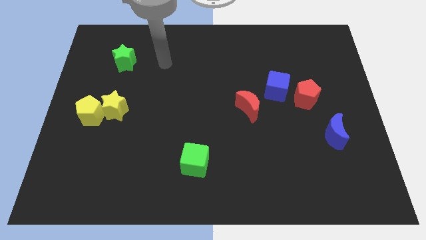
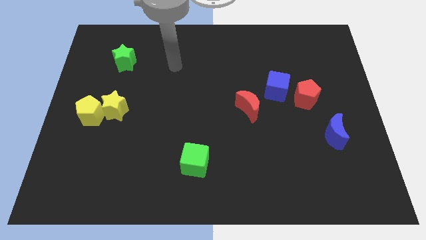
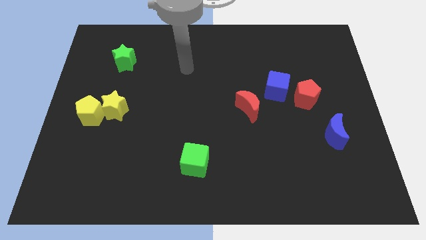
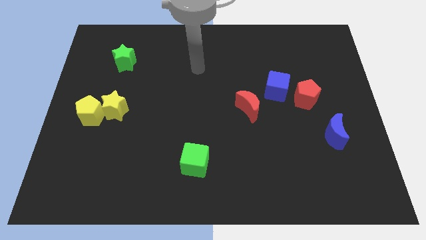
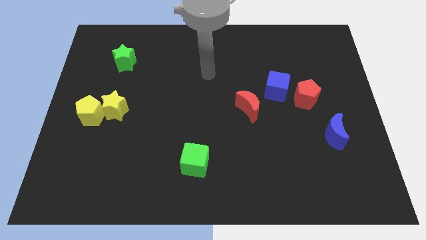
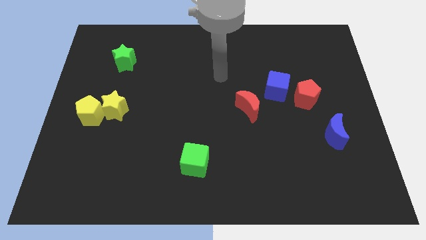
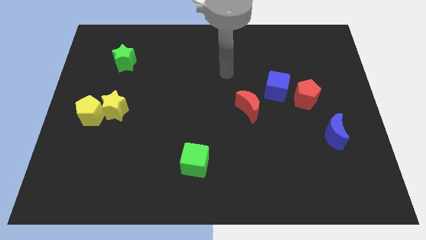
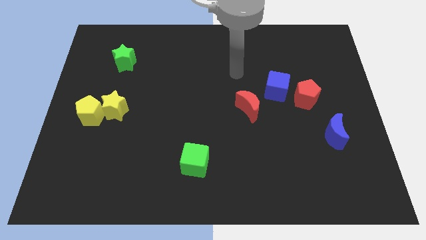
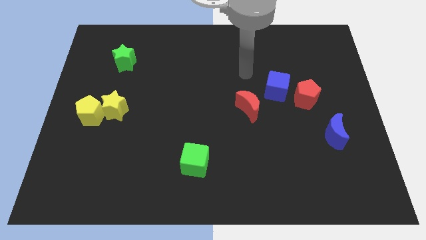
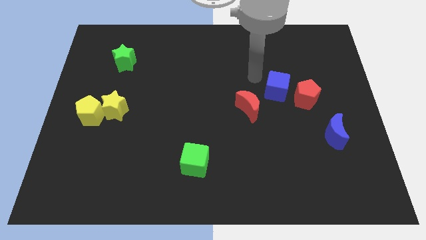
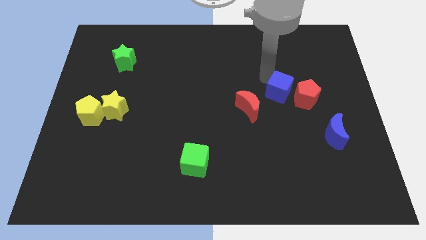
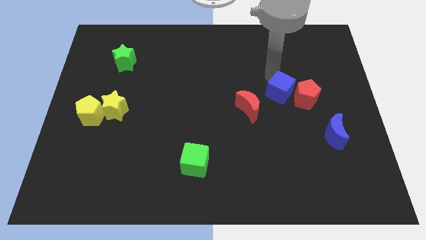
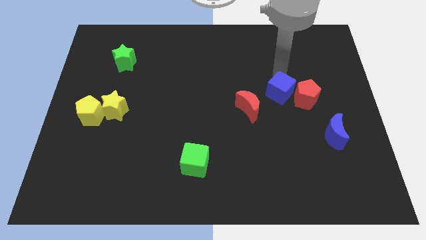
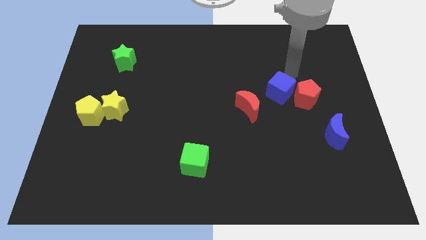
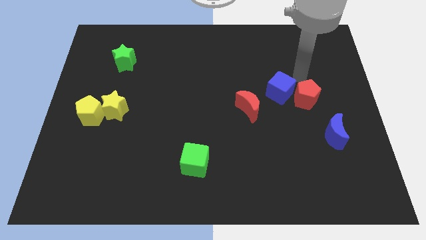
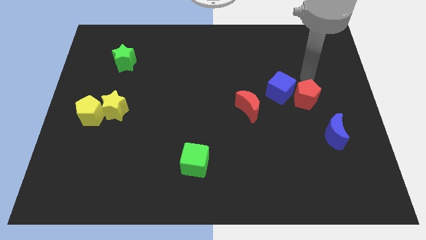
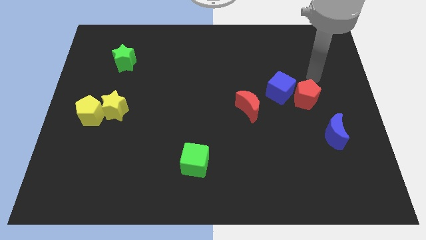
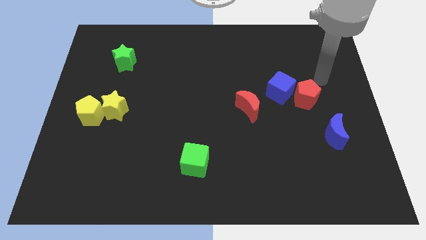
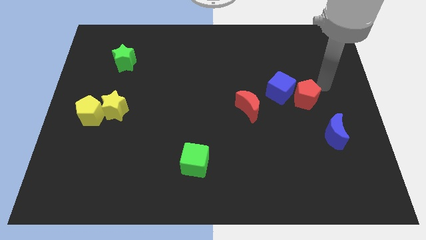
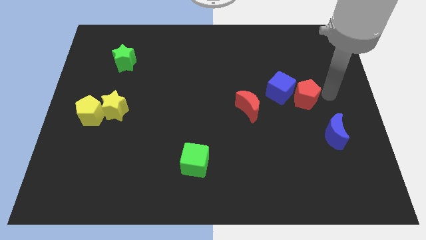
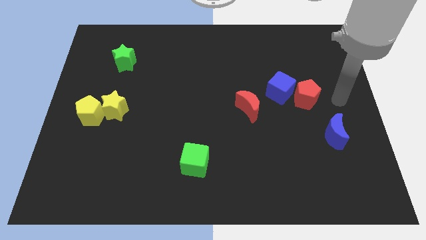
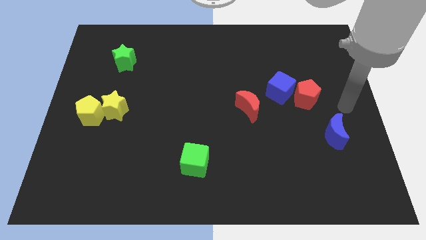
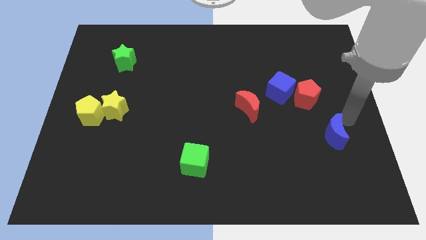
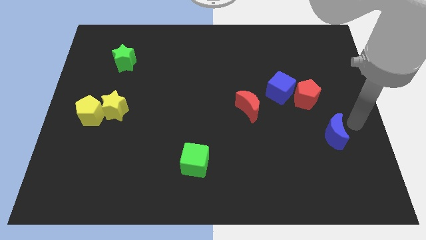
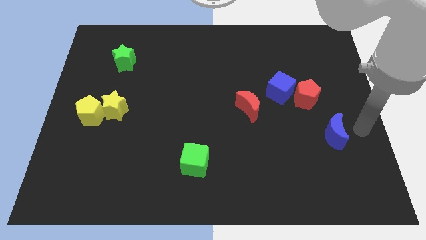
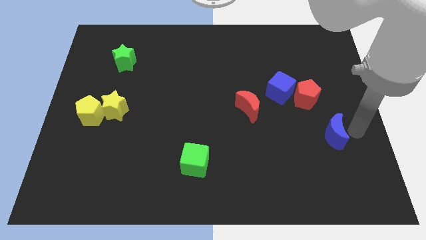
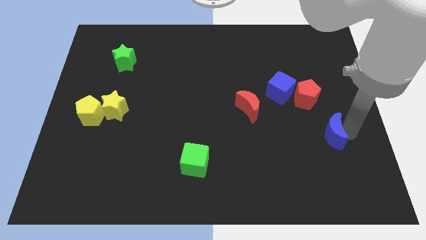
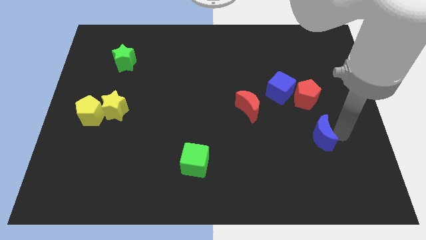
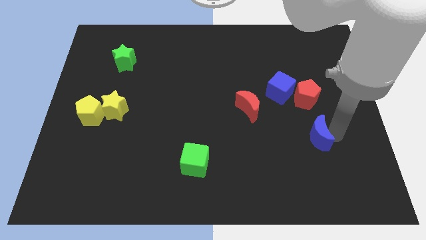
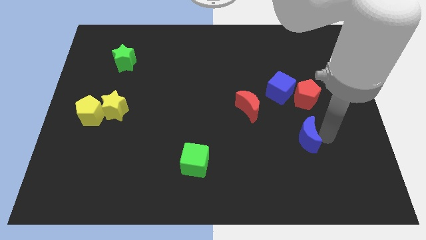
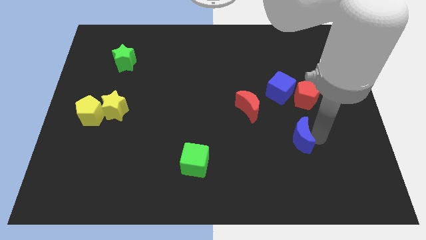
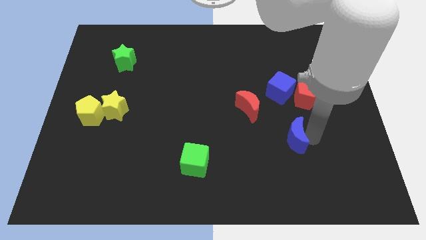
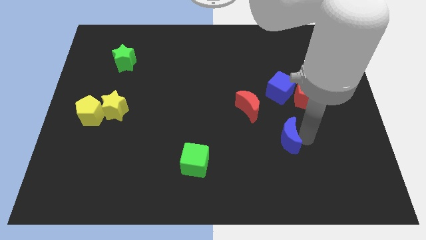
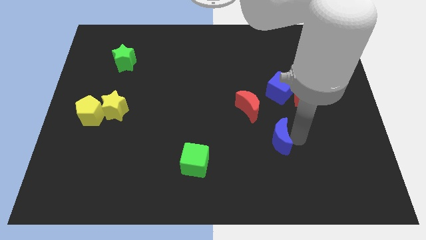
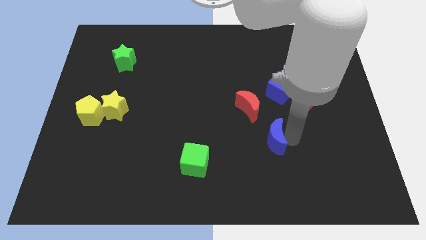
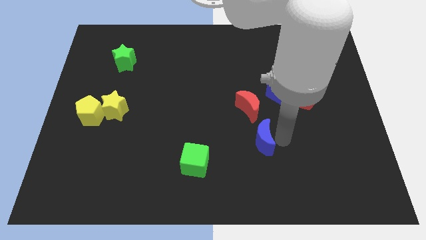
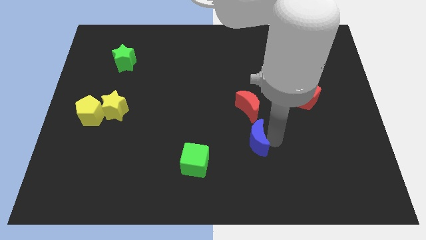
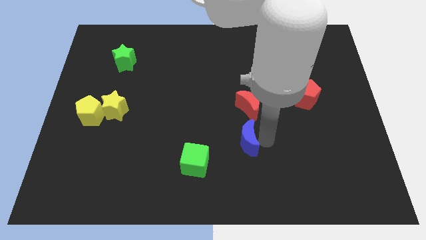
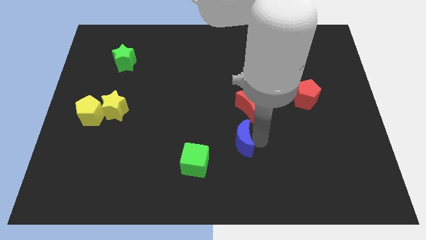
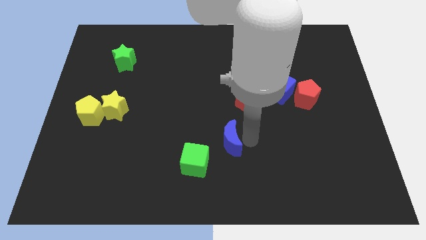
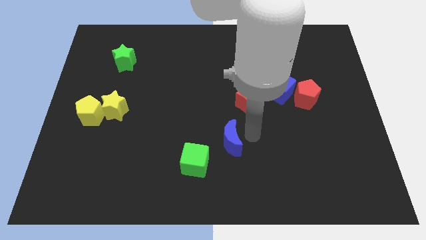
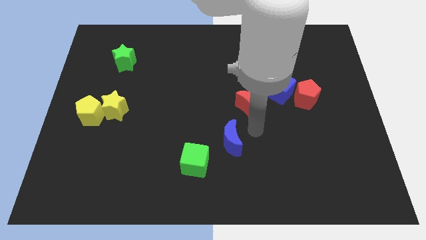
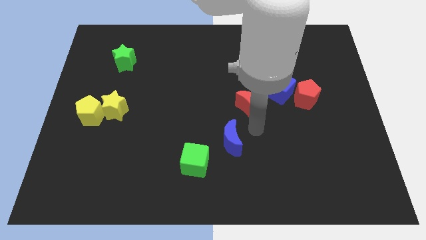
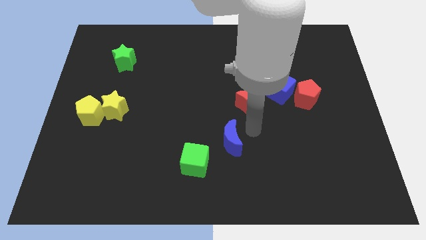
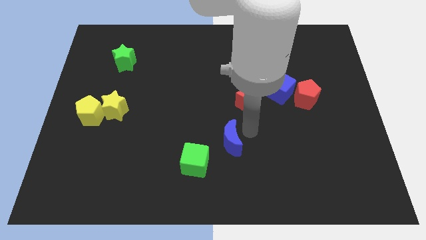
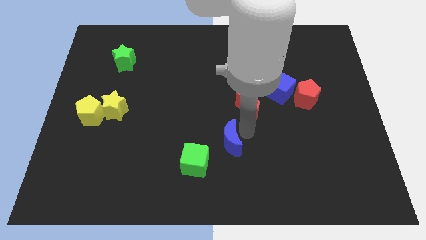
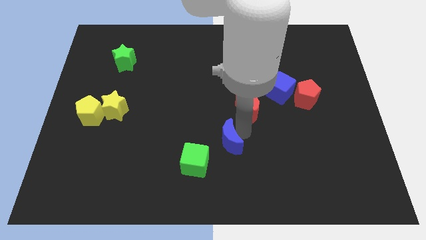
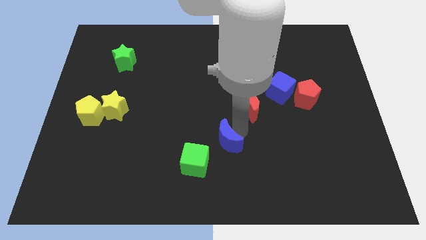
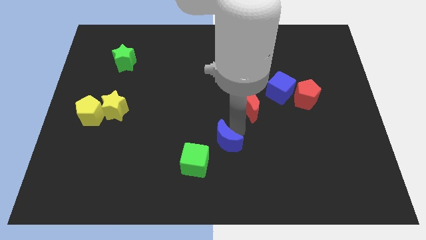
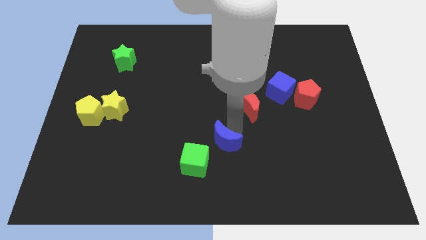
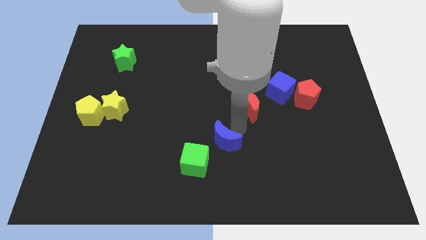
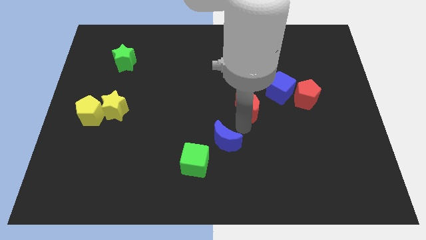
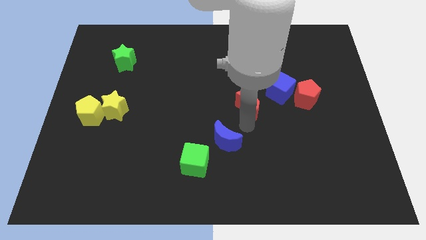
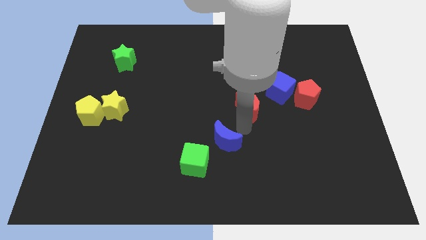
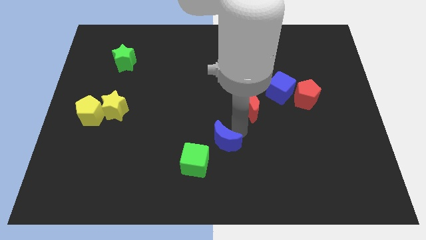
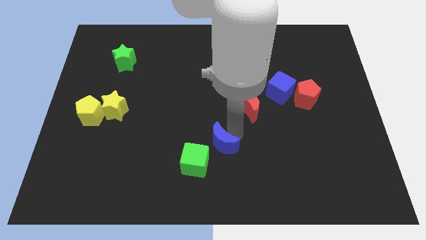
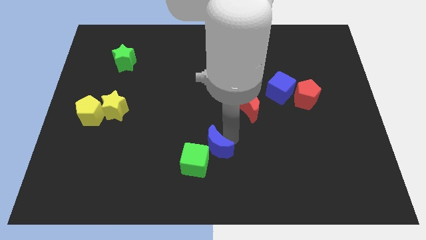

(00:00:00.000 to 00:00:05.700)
move the blue moon towards the green cube

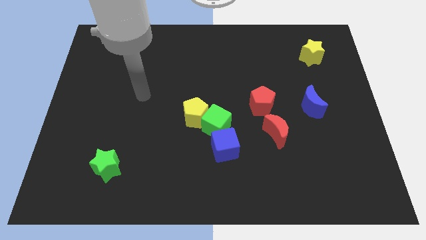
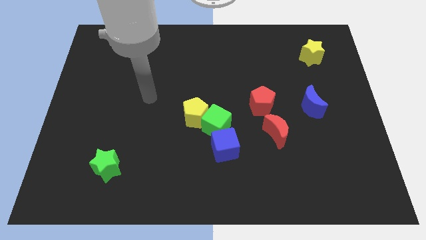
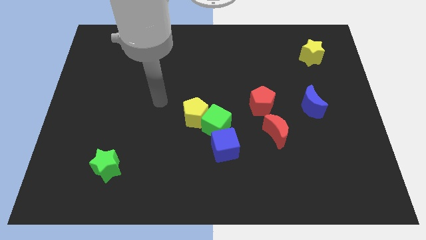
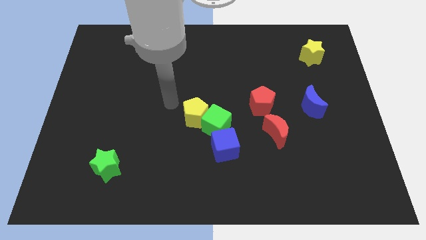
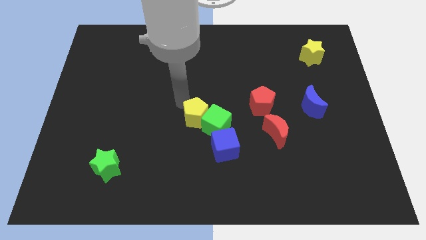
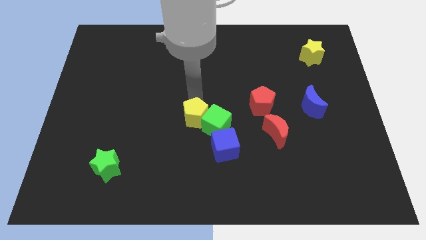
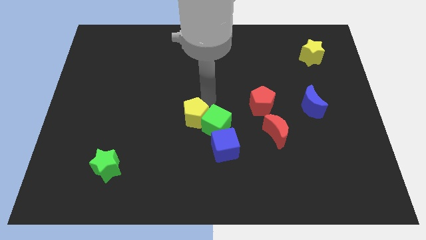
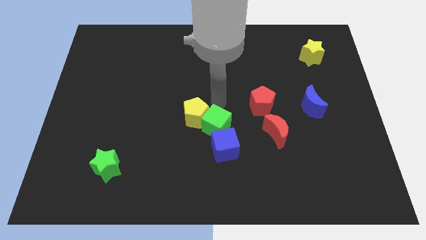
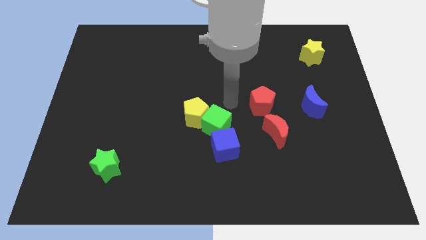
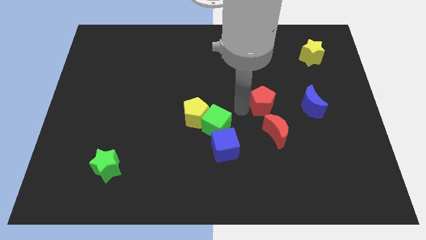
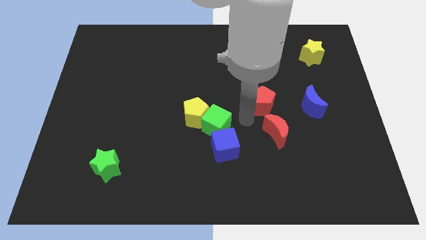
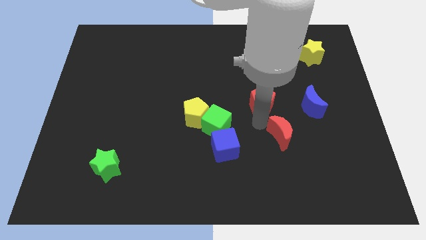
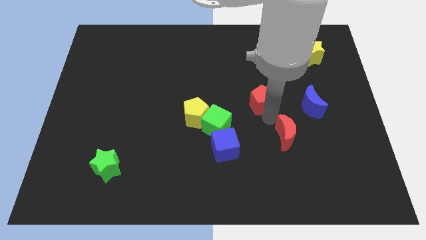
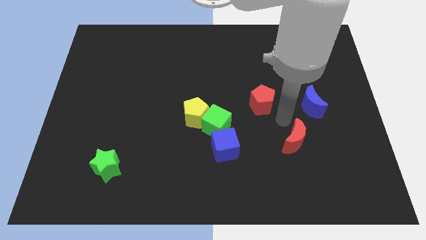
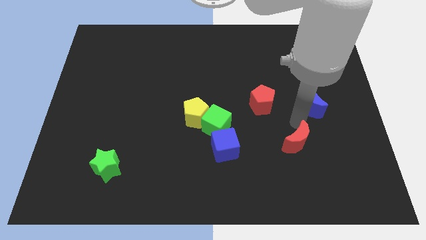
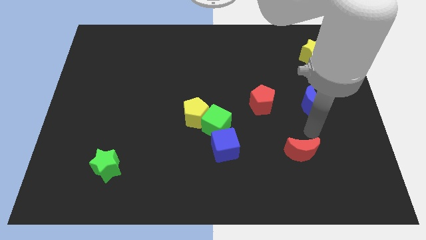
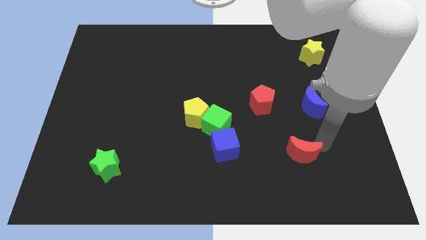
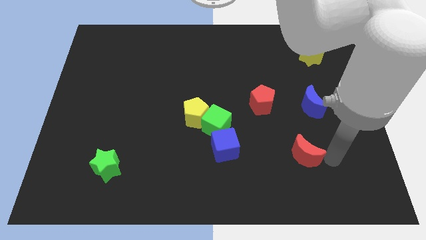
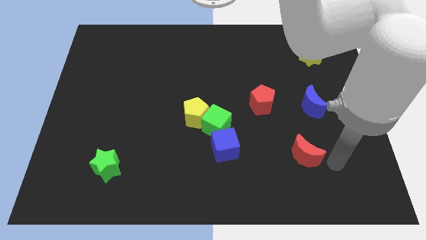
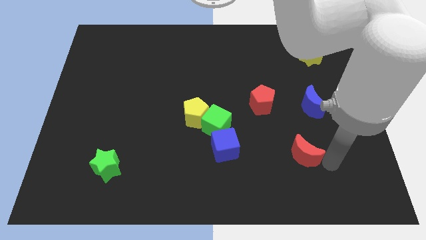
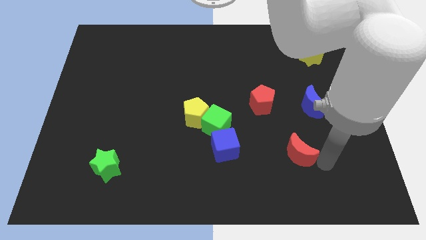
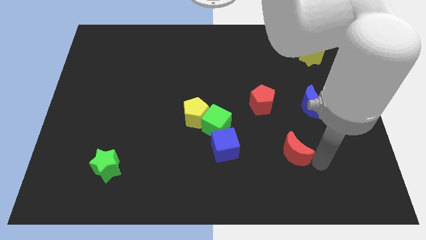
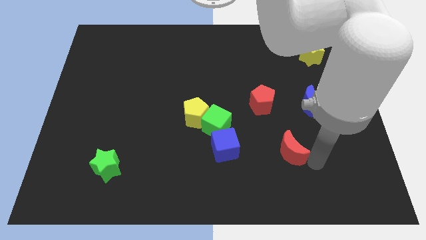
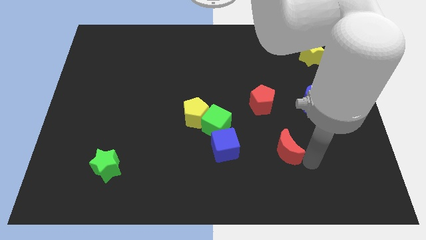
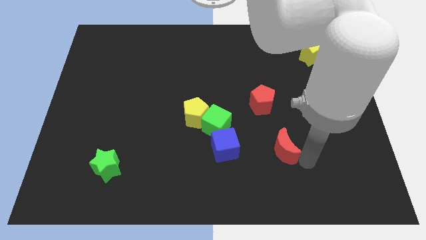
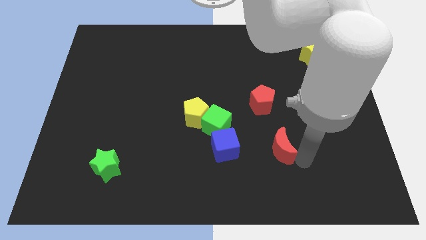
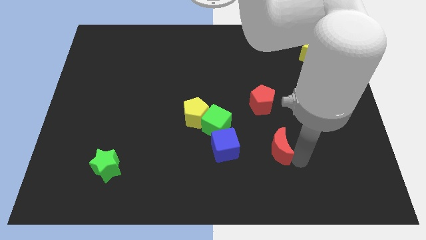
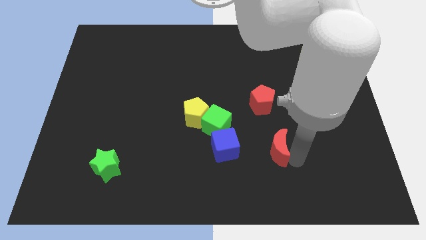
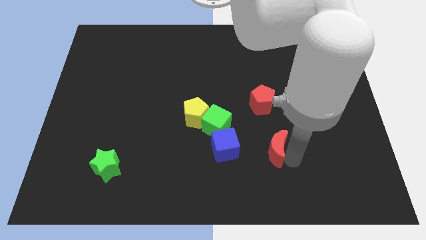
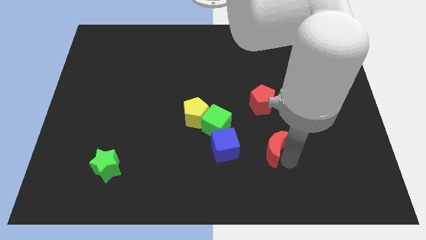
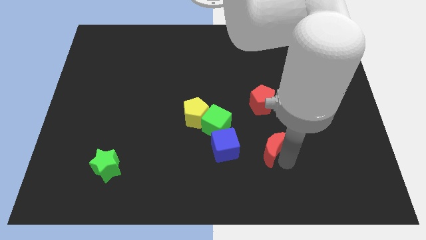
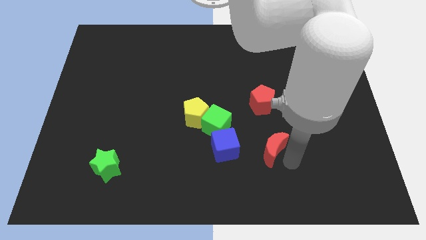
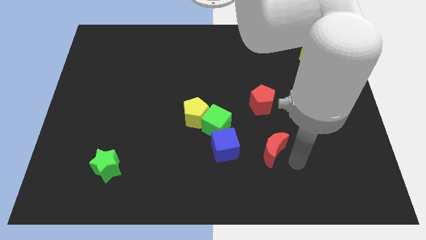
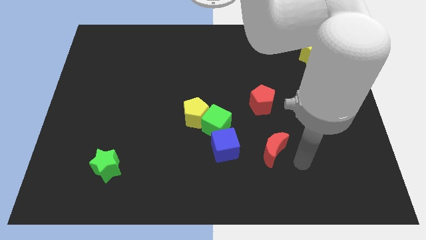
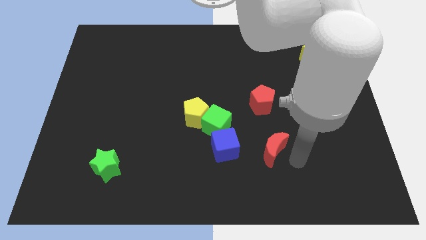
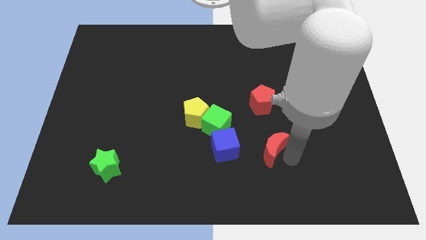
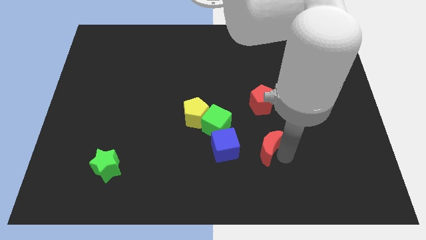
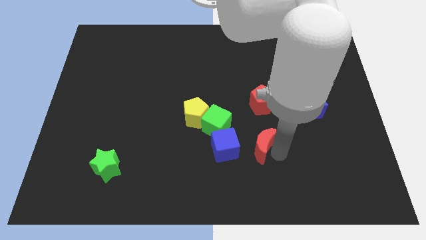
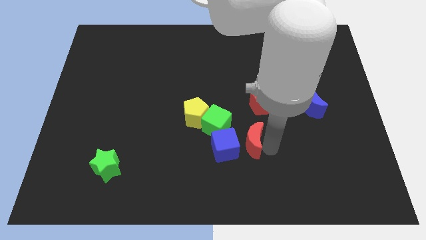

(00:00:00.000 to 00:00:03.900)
put the red moon to the blue cube
